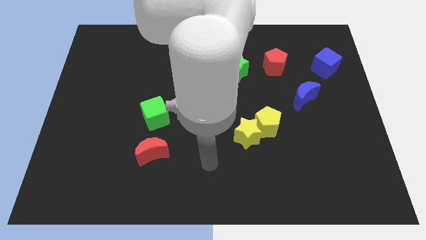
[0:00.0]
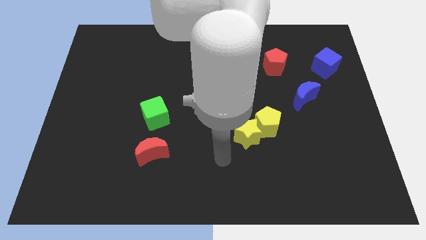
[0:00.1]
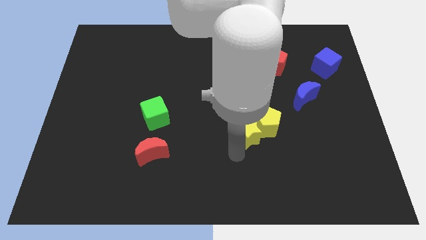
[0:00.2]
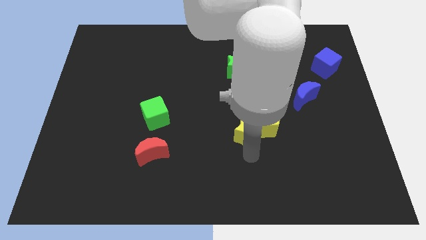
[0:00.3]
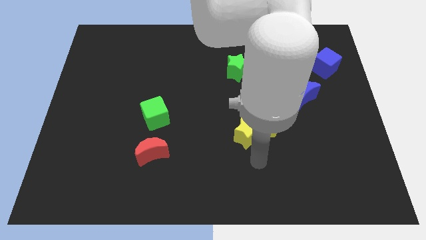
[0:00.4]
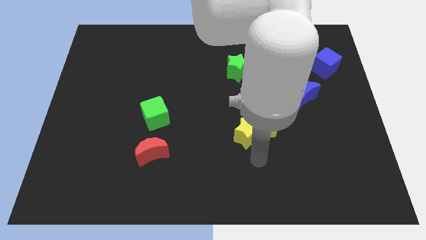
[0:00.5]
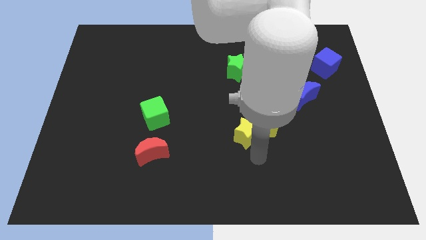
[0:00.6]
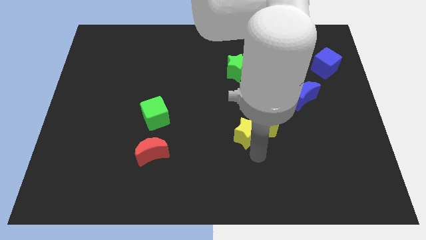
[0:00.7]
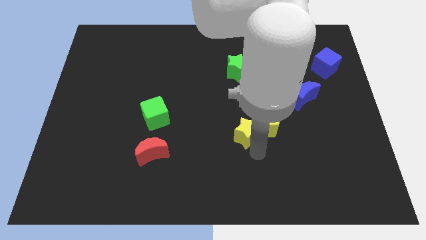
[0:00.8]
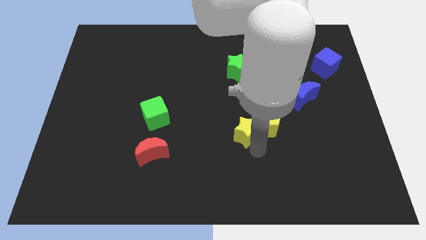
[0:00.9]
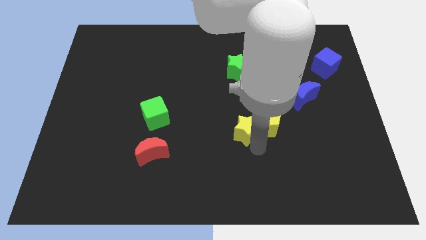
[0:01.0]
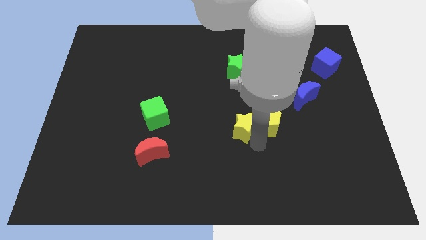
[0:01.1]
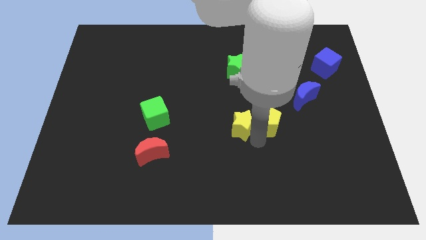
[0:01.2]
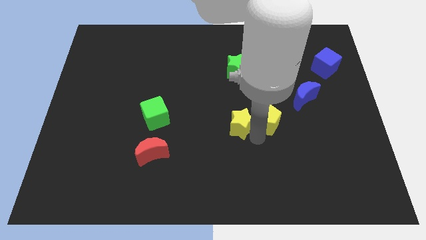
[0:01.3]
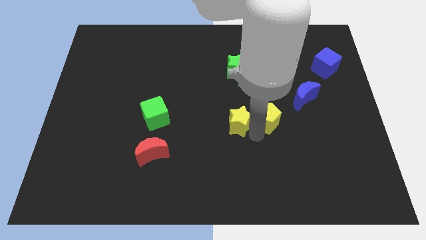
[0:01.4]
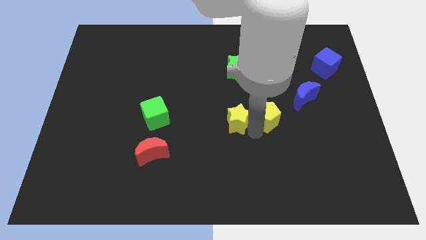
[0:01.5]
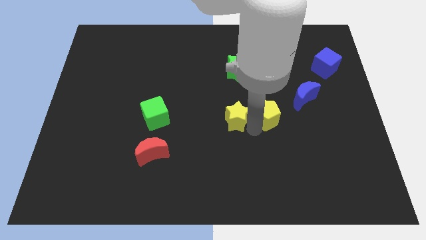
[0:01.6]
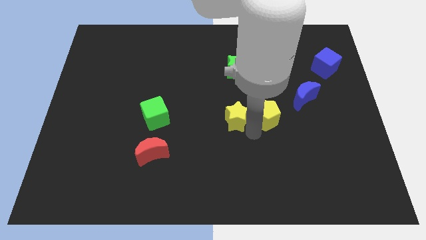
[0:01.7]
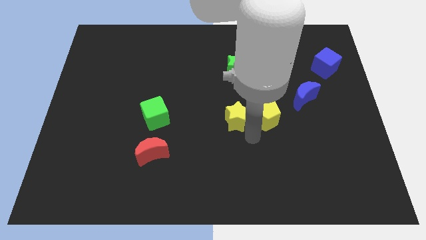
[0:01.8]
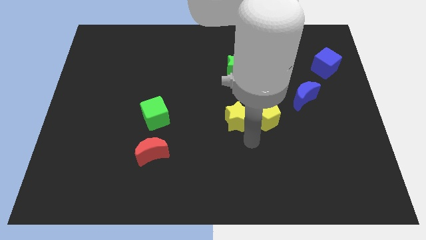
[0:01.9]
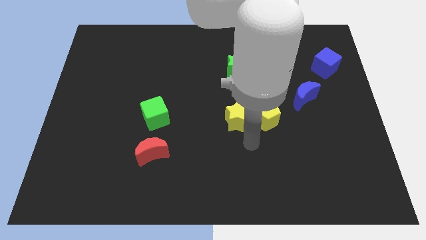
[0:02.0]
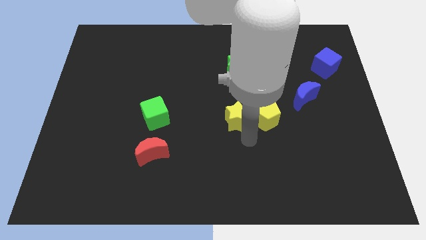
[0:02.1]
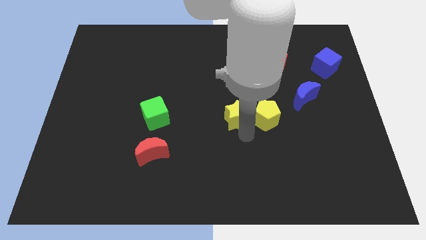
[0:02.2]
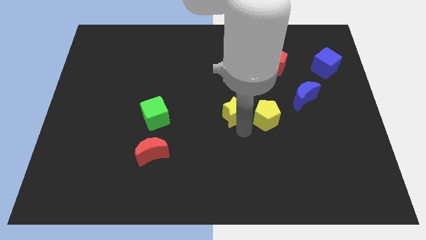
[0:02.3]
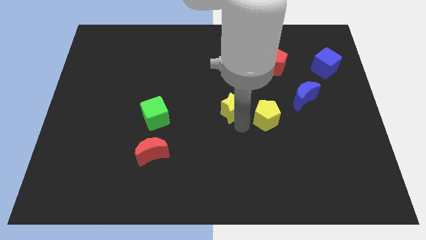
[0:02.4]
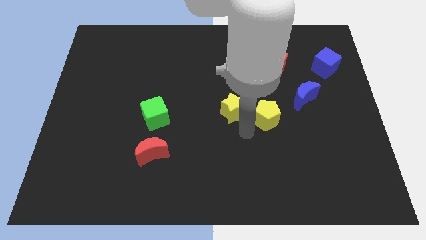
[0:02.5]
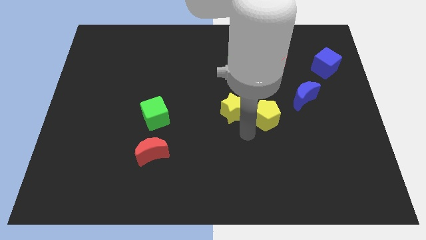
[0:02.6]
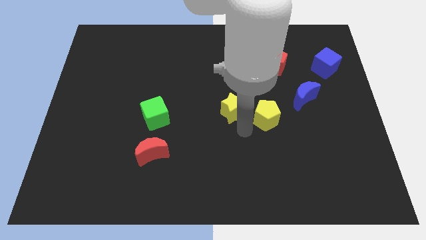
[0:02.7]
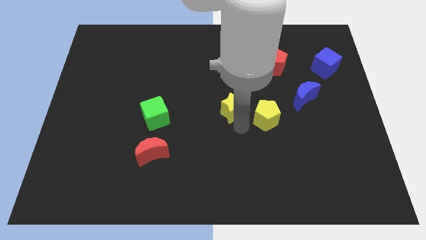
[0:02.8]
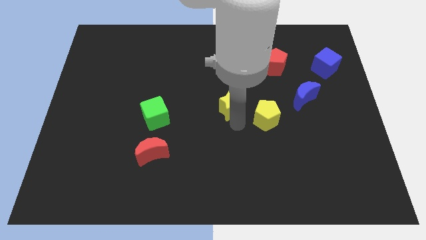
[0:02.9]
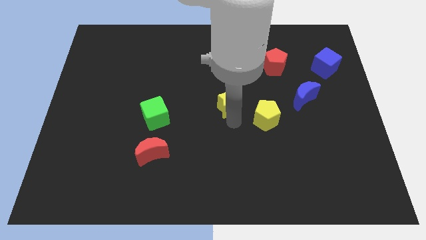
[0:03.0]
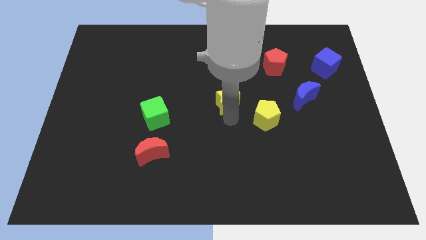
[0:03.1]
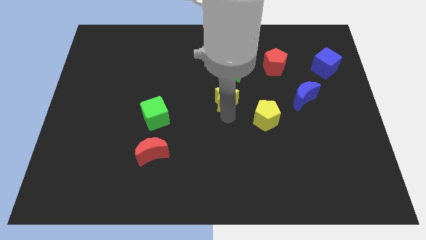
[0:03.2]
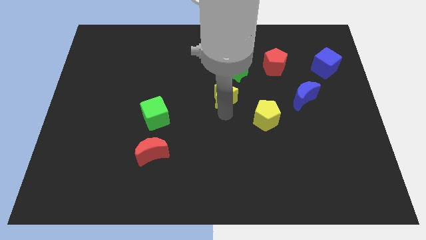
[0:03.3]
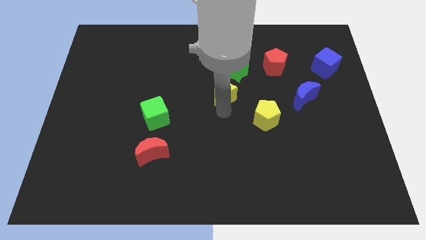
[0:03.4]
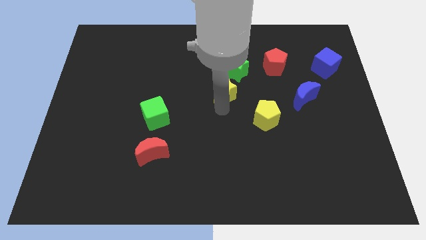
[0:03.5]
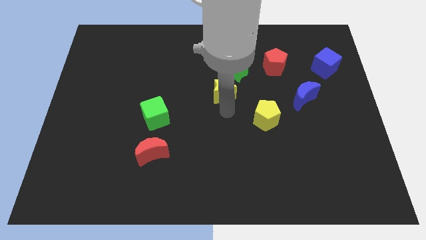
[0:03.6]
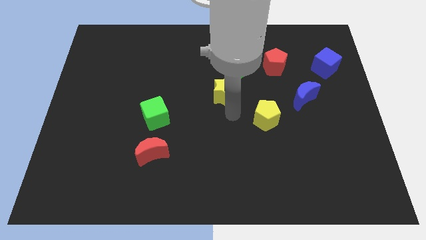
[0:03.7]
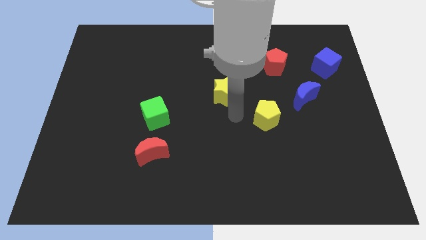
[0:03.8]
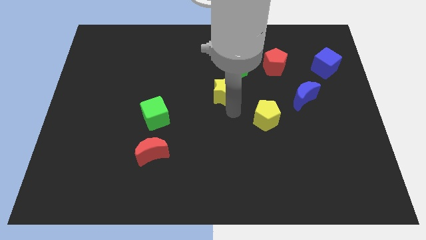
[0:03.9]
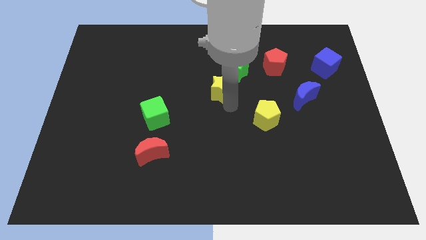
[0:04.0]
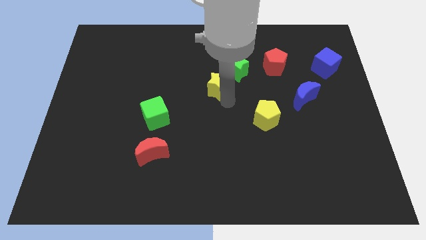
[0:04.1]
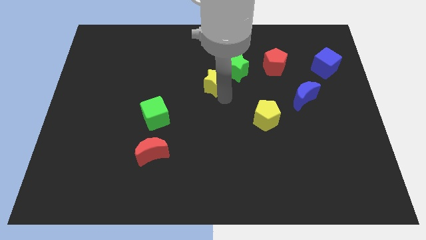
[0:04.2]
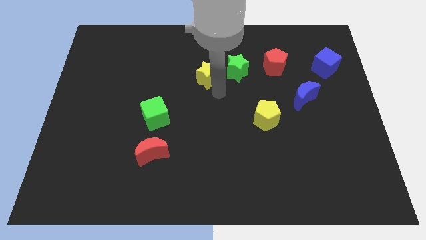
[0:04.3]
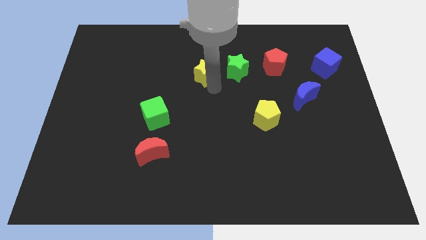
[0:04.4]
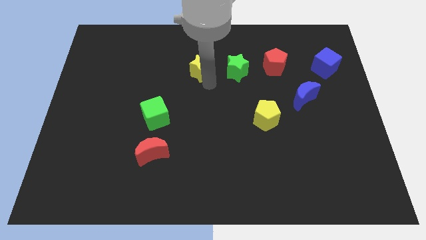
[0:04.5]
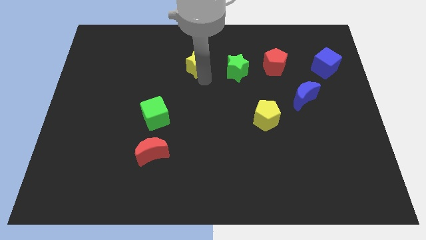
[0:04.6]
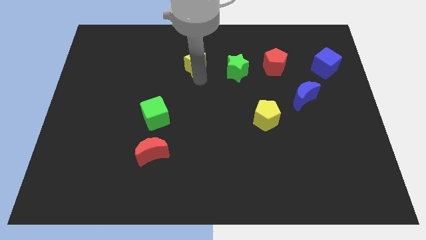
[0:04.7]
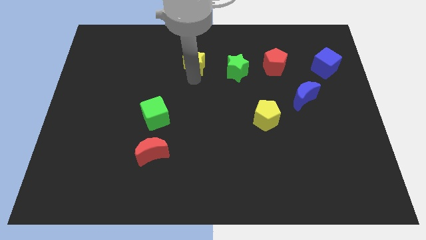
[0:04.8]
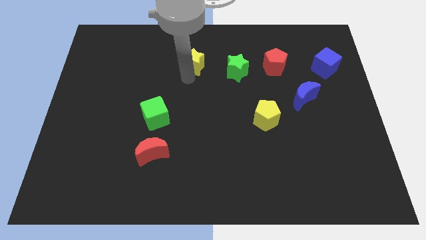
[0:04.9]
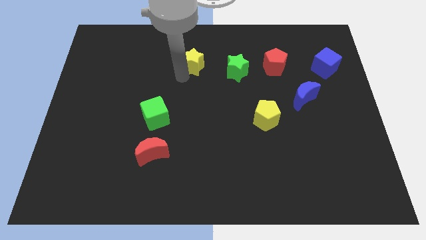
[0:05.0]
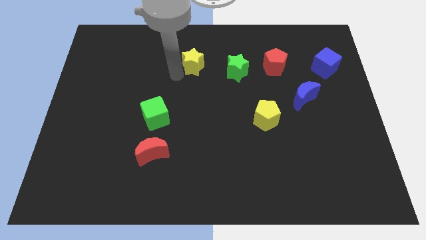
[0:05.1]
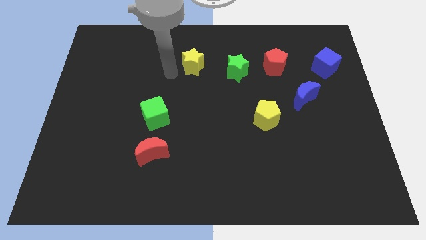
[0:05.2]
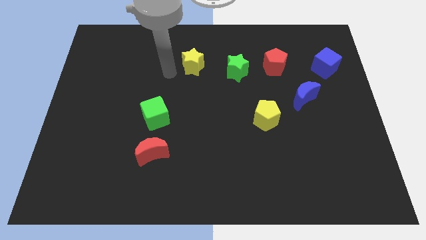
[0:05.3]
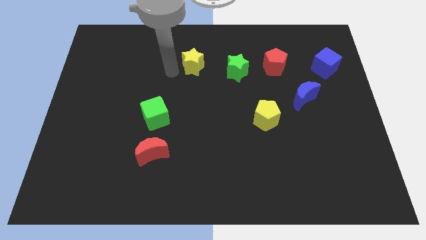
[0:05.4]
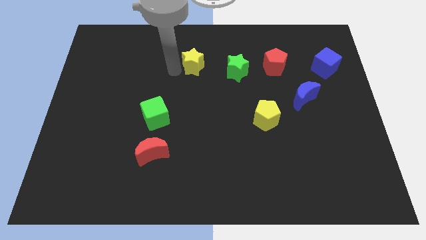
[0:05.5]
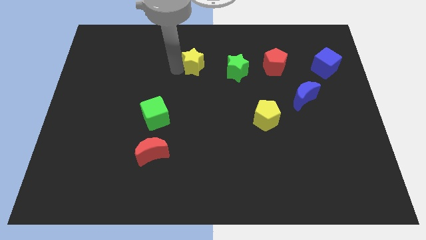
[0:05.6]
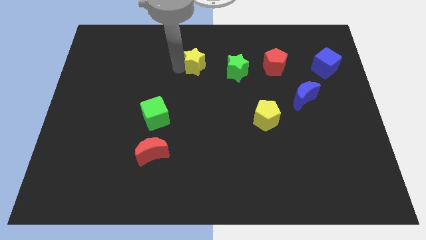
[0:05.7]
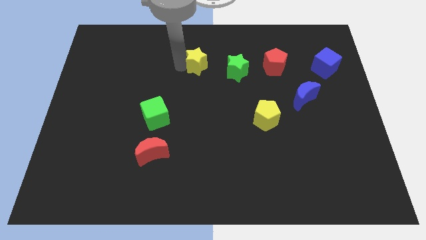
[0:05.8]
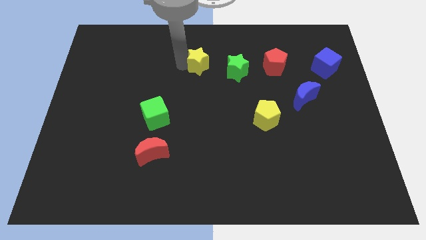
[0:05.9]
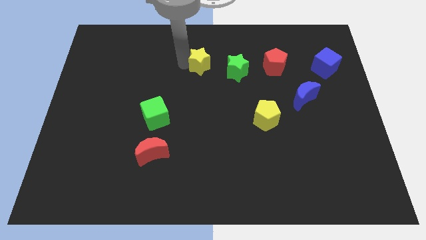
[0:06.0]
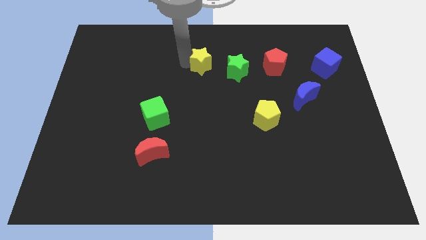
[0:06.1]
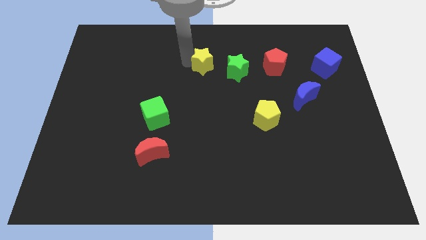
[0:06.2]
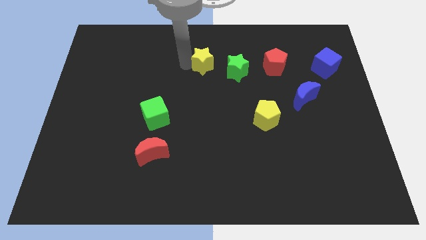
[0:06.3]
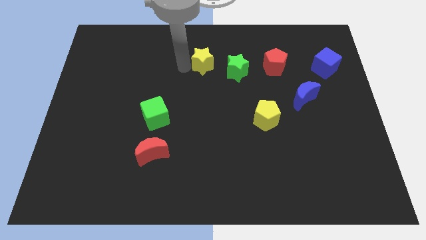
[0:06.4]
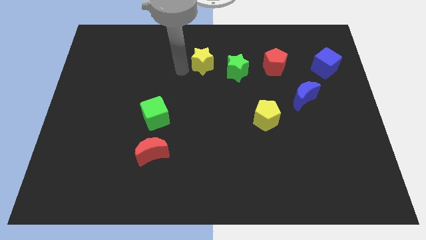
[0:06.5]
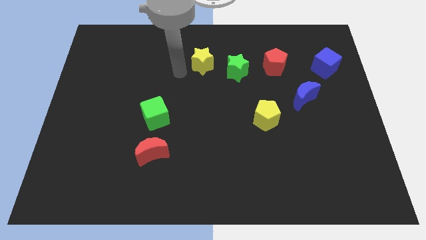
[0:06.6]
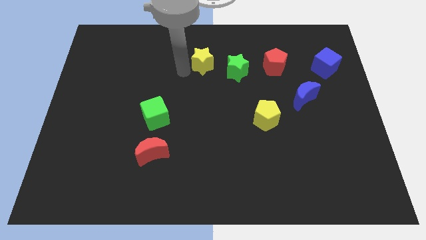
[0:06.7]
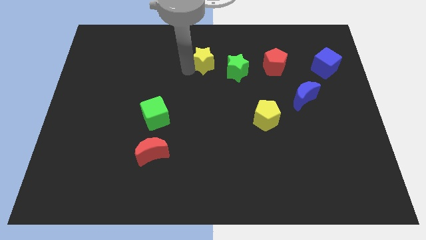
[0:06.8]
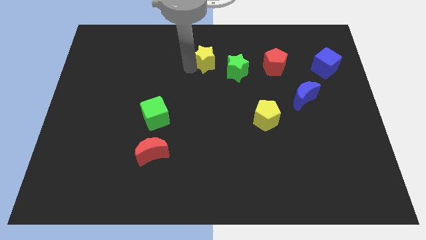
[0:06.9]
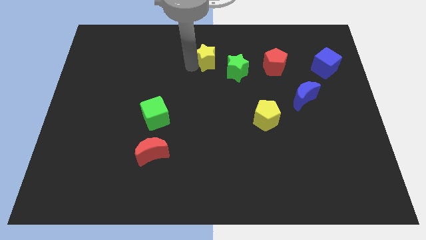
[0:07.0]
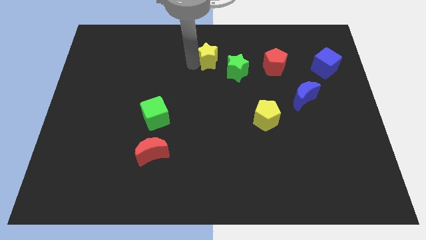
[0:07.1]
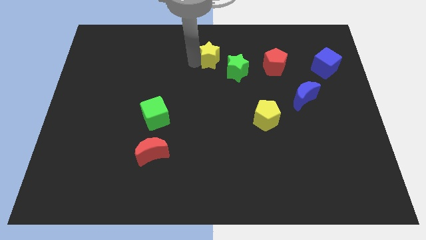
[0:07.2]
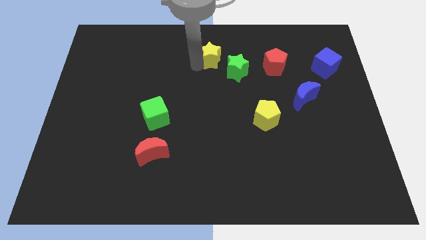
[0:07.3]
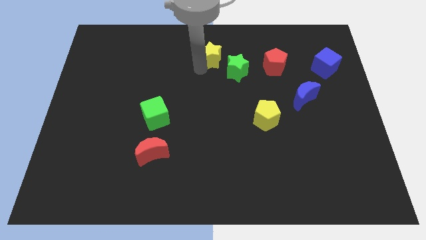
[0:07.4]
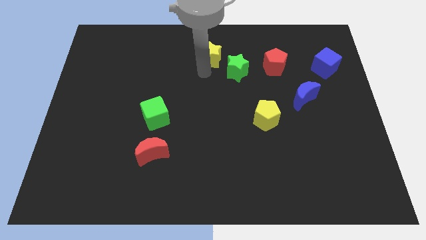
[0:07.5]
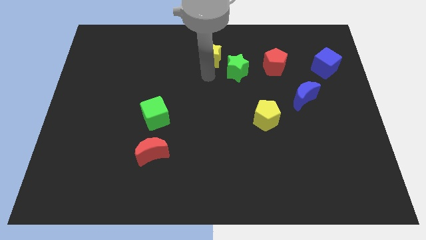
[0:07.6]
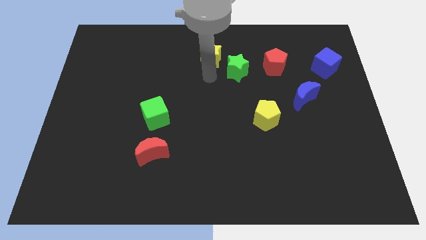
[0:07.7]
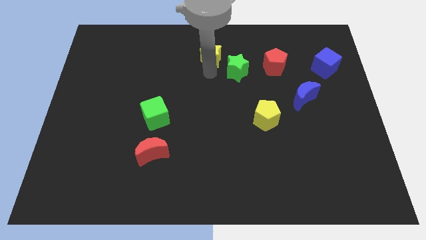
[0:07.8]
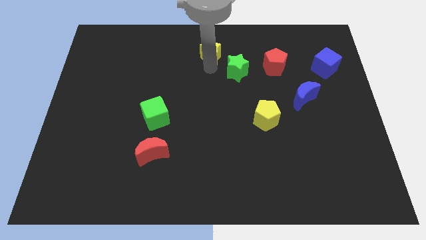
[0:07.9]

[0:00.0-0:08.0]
push the yellow star to the top

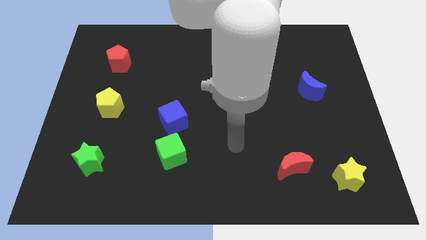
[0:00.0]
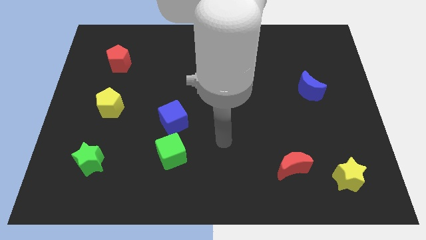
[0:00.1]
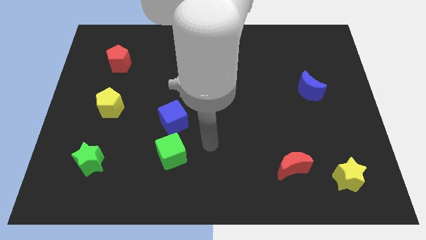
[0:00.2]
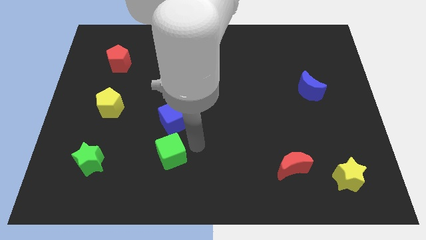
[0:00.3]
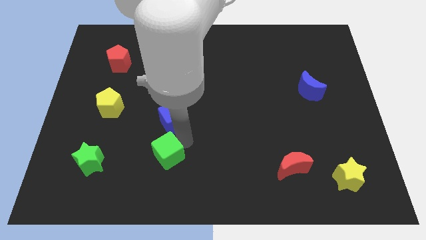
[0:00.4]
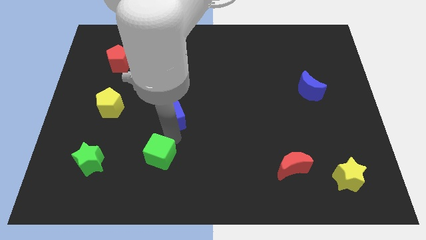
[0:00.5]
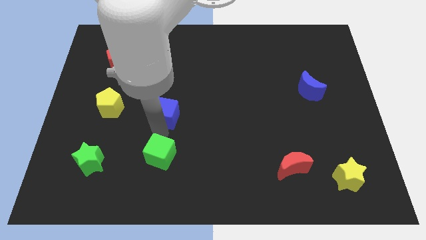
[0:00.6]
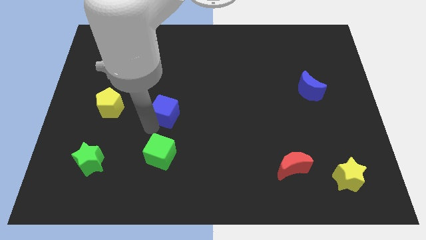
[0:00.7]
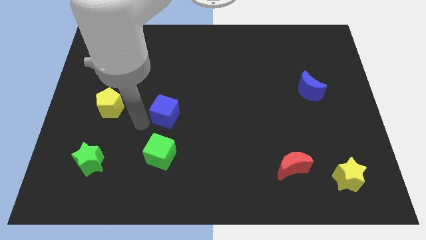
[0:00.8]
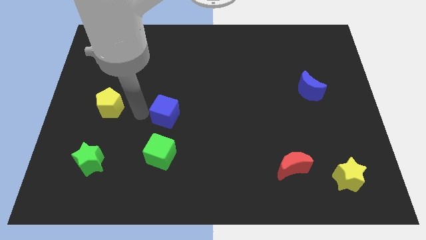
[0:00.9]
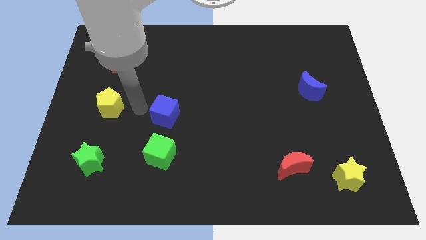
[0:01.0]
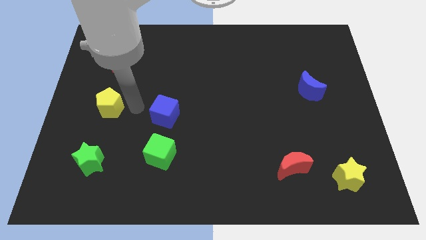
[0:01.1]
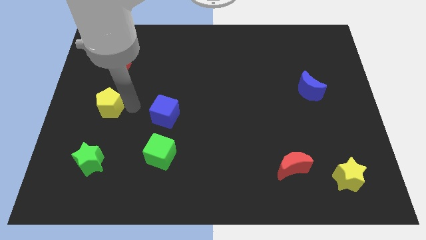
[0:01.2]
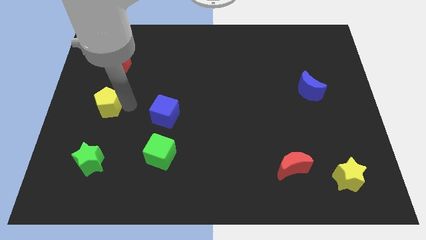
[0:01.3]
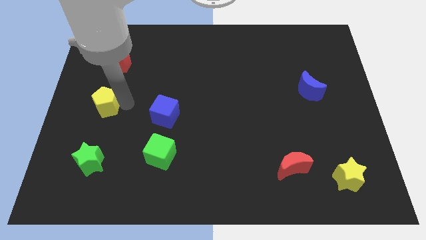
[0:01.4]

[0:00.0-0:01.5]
push the yellow pentagon to the center left
